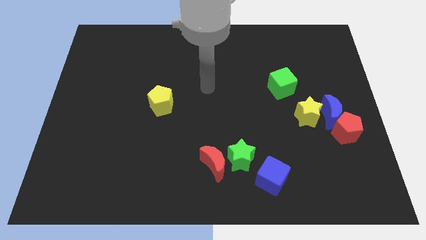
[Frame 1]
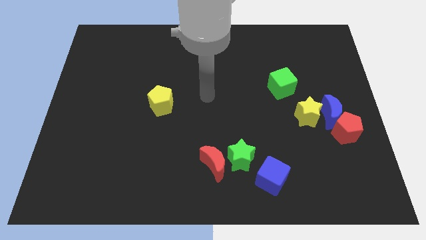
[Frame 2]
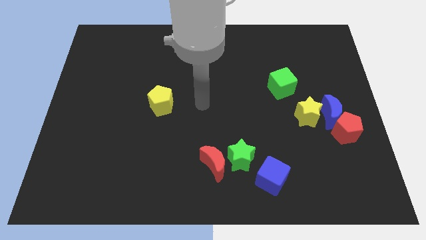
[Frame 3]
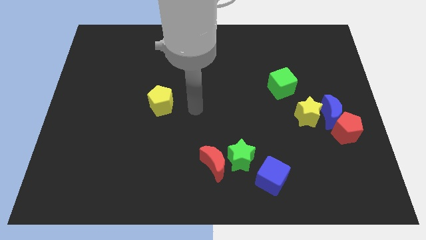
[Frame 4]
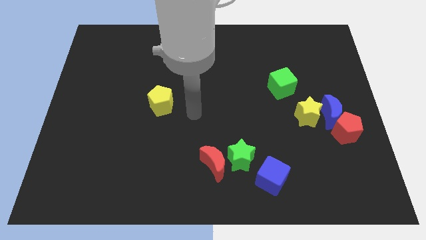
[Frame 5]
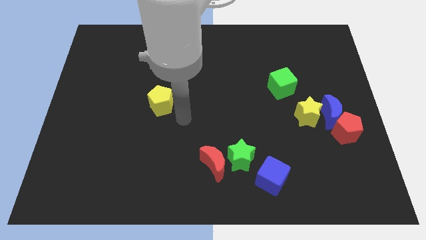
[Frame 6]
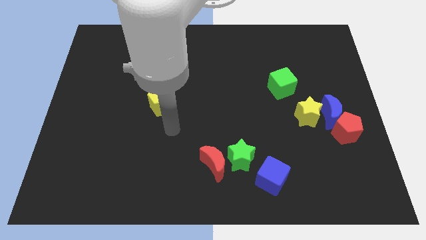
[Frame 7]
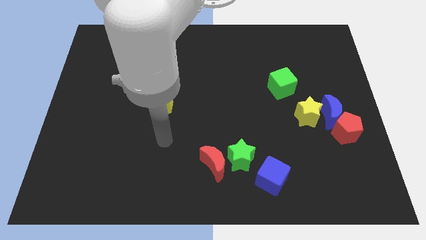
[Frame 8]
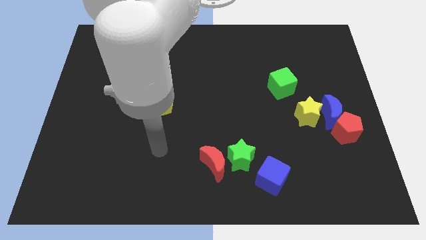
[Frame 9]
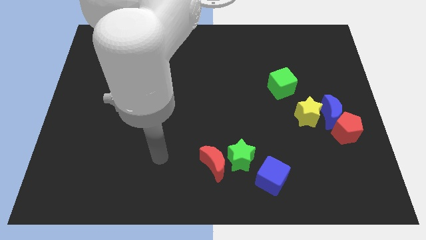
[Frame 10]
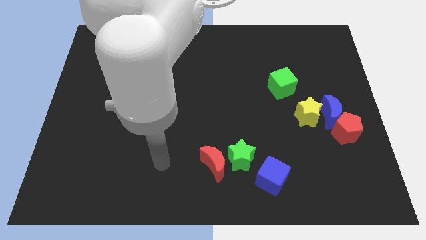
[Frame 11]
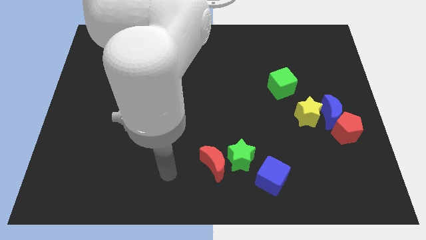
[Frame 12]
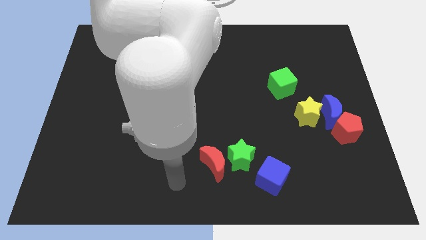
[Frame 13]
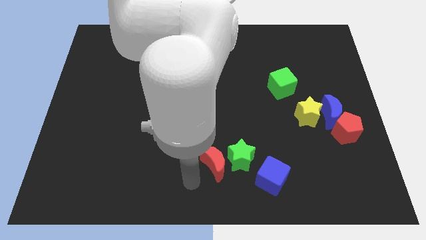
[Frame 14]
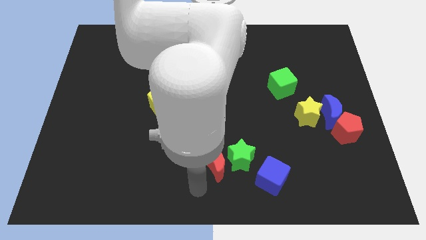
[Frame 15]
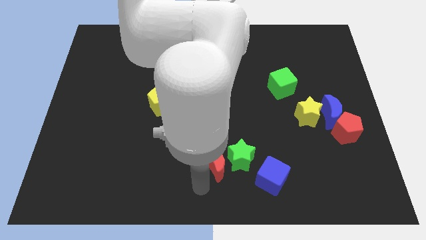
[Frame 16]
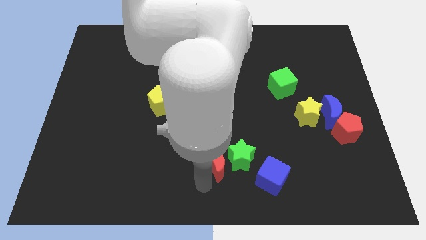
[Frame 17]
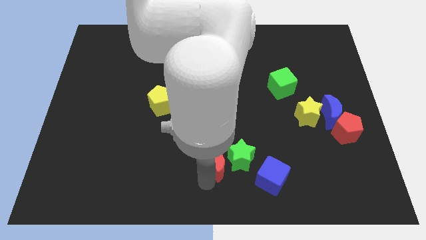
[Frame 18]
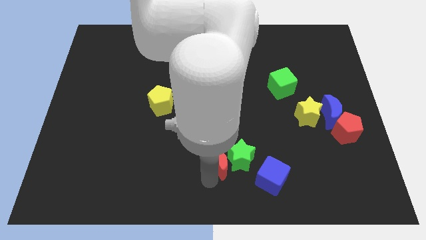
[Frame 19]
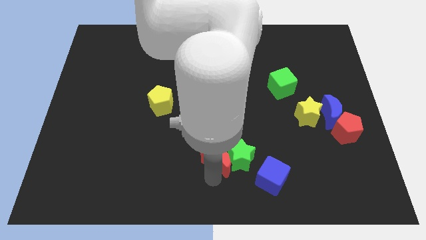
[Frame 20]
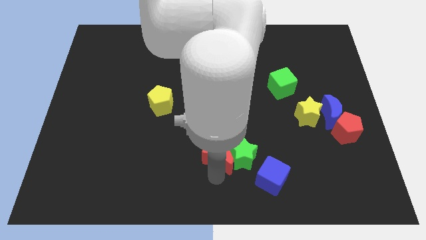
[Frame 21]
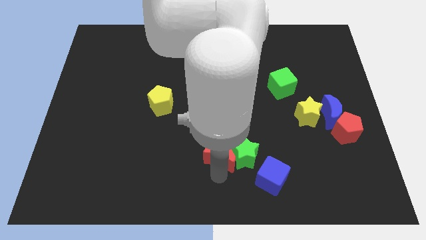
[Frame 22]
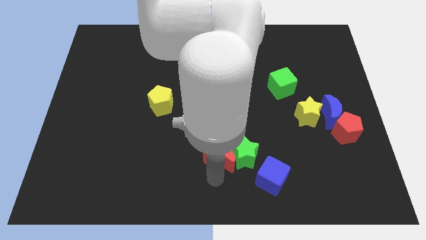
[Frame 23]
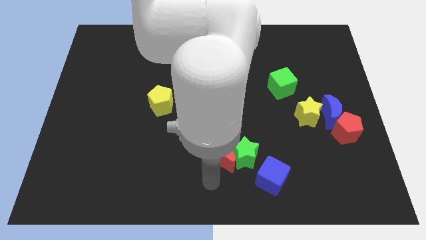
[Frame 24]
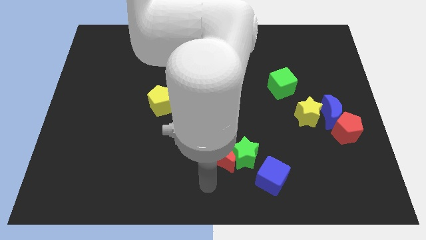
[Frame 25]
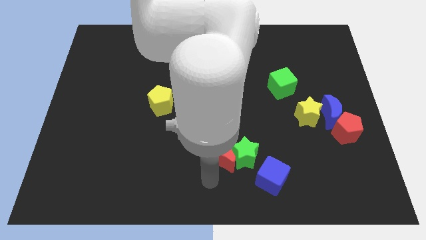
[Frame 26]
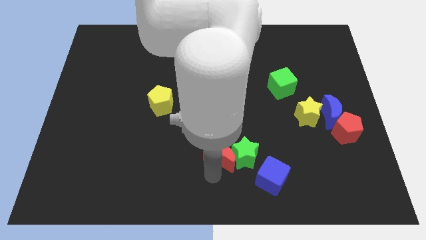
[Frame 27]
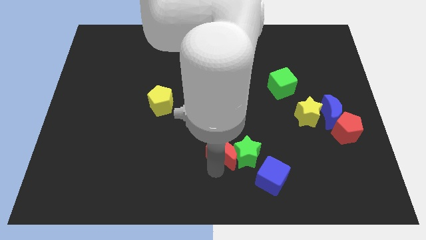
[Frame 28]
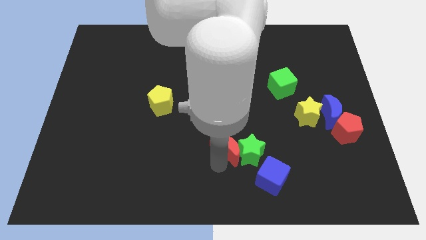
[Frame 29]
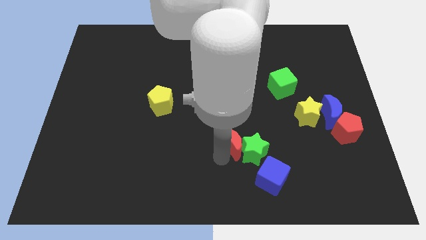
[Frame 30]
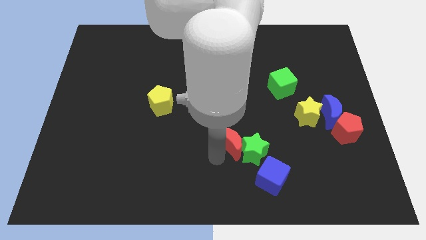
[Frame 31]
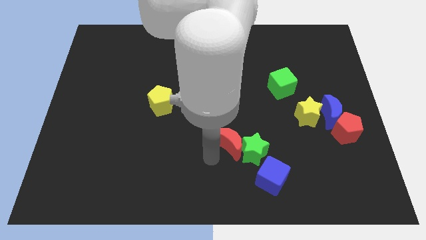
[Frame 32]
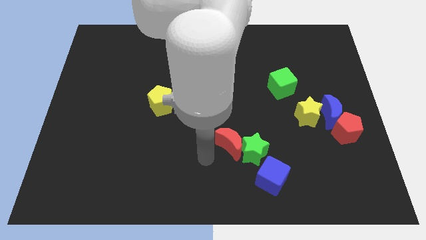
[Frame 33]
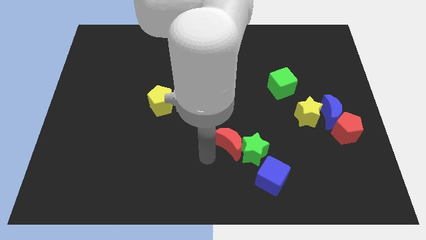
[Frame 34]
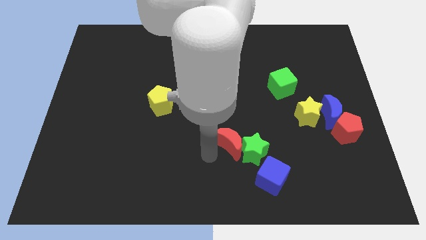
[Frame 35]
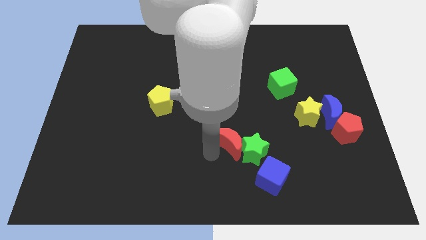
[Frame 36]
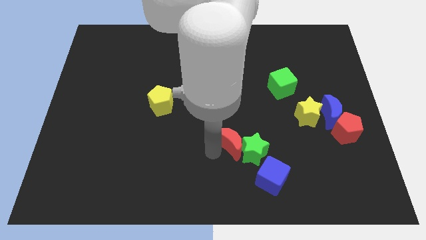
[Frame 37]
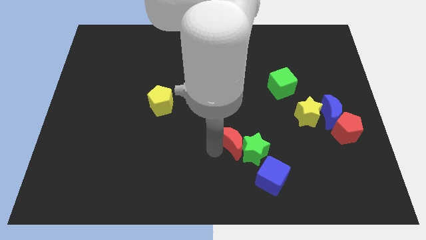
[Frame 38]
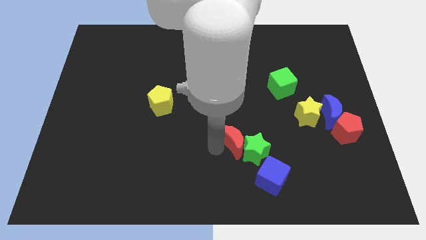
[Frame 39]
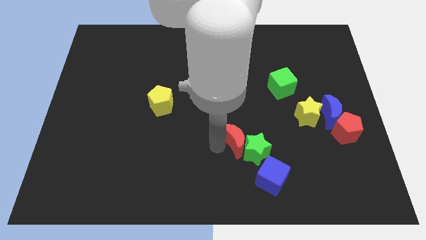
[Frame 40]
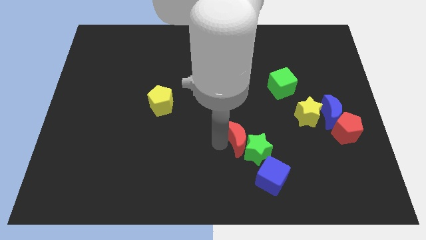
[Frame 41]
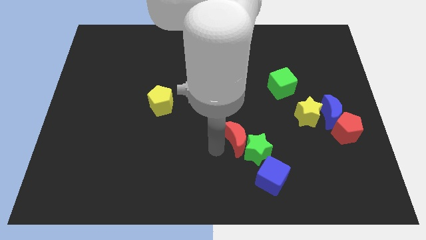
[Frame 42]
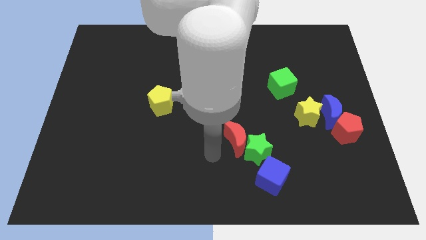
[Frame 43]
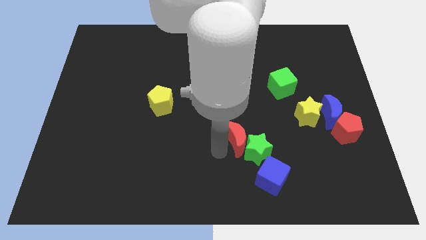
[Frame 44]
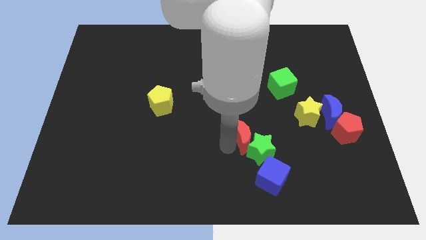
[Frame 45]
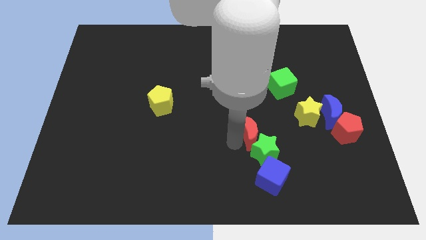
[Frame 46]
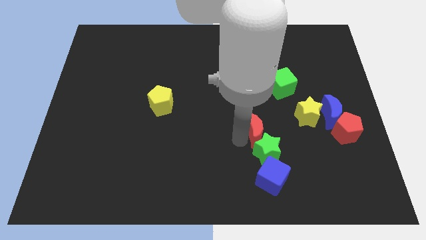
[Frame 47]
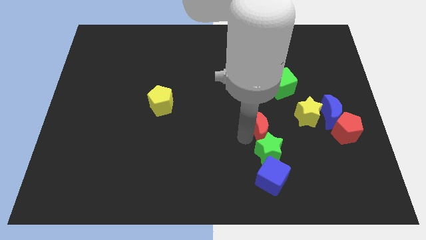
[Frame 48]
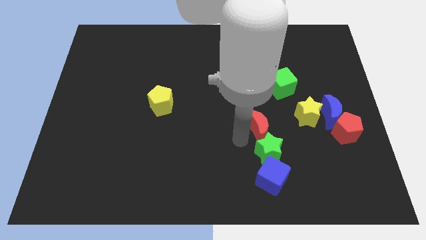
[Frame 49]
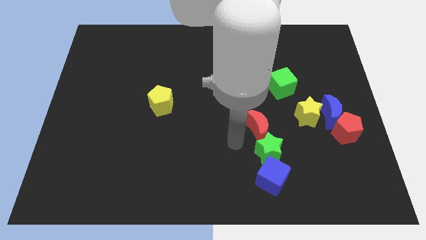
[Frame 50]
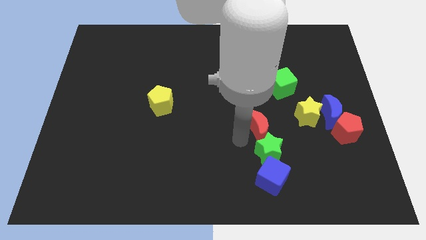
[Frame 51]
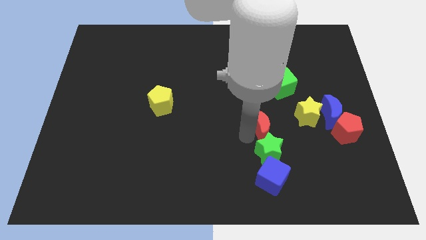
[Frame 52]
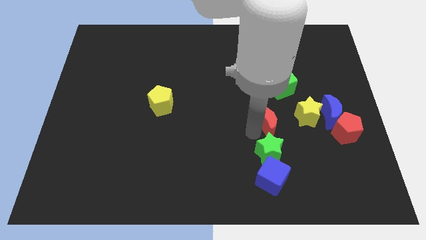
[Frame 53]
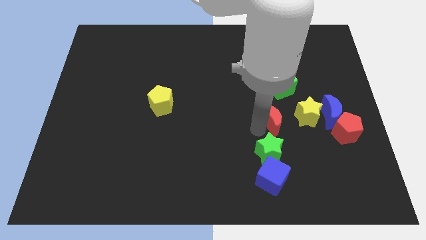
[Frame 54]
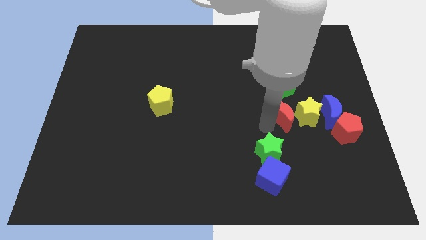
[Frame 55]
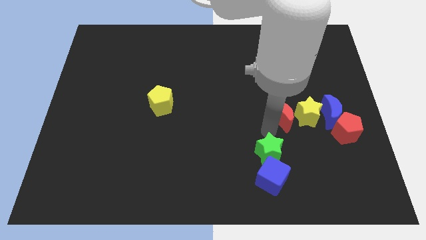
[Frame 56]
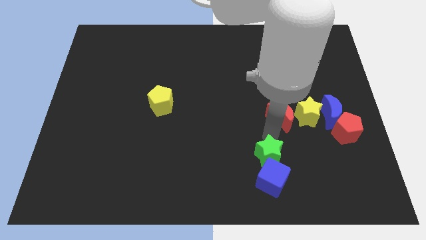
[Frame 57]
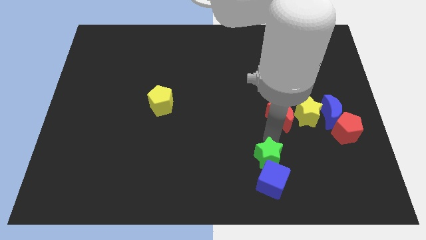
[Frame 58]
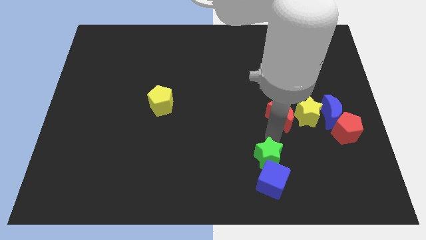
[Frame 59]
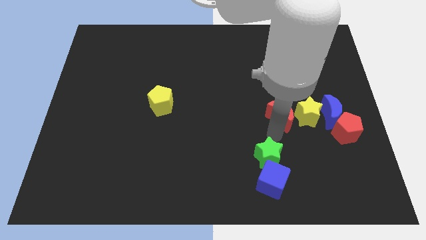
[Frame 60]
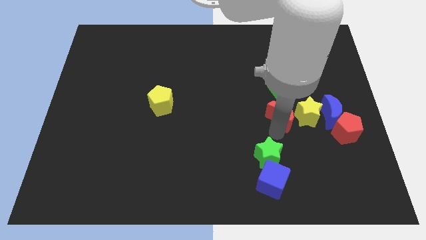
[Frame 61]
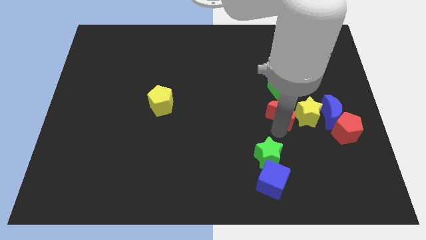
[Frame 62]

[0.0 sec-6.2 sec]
move the red moon upwards and to the right

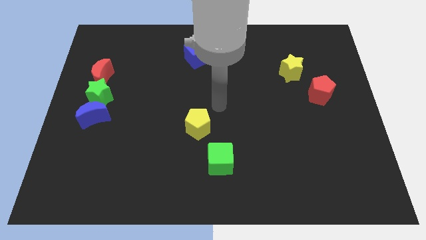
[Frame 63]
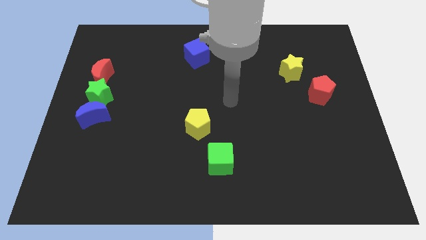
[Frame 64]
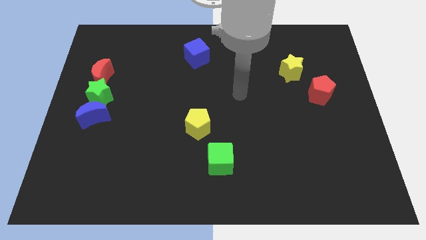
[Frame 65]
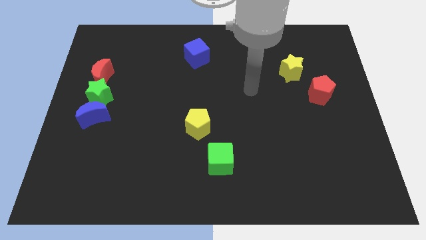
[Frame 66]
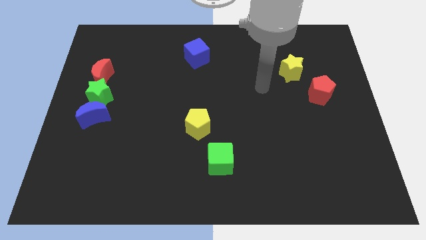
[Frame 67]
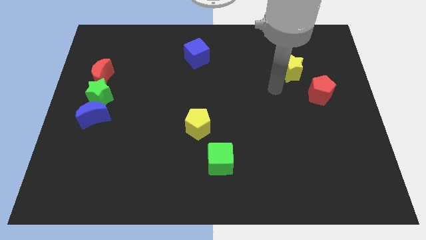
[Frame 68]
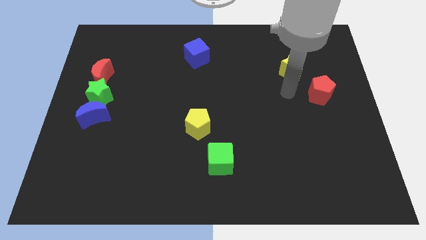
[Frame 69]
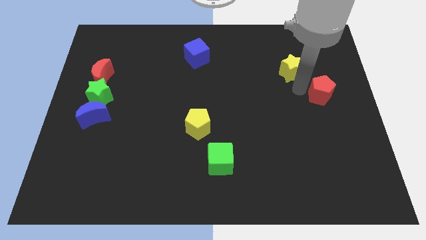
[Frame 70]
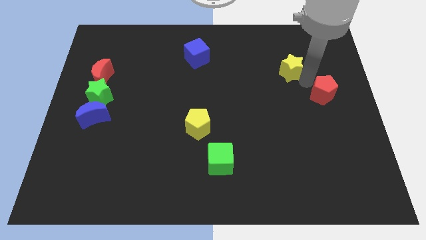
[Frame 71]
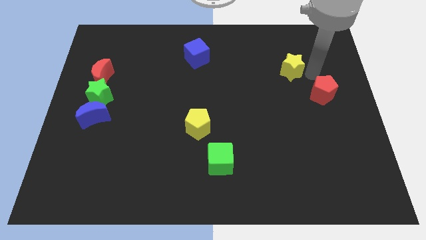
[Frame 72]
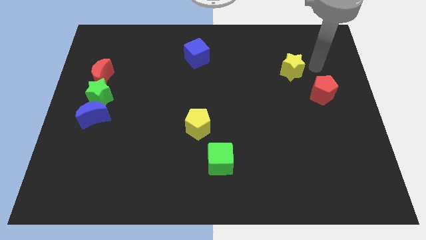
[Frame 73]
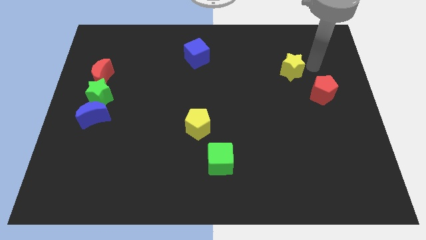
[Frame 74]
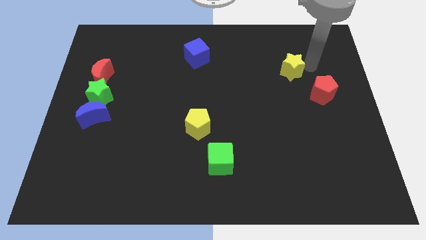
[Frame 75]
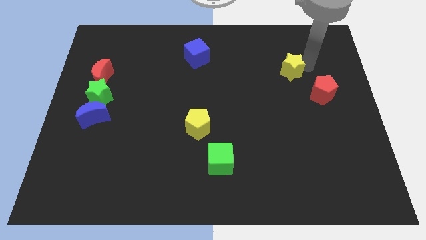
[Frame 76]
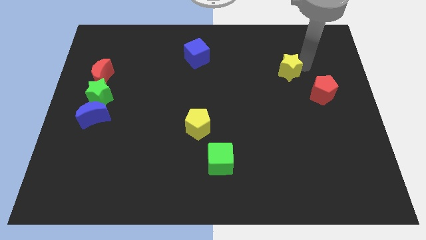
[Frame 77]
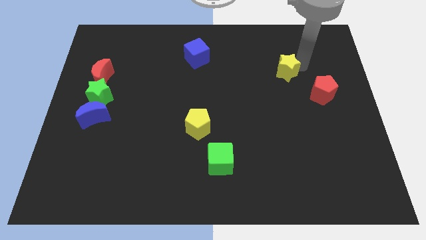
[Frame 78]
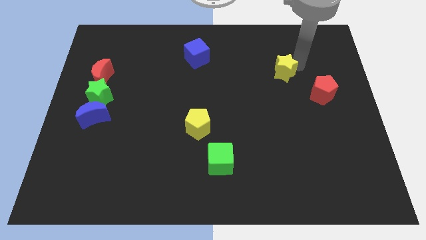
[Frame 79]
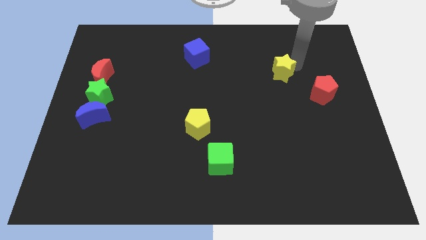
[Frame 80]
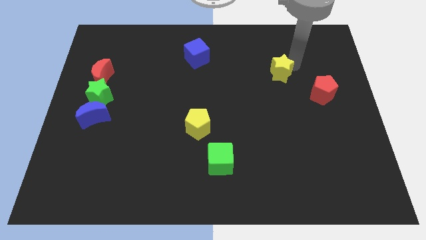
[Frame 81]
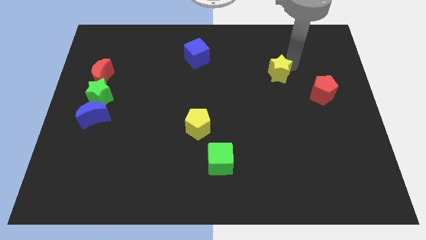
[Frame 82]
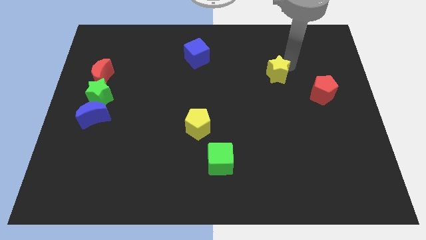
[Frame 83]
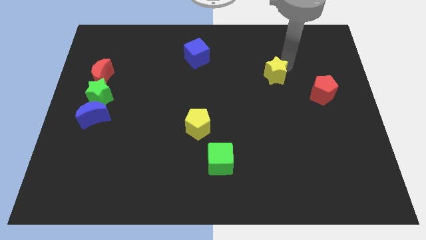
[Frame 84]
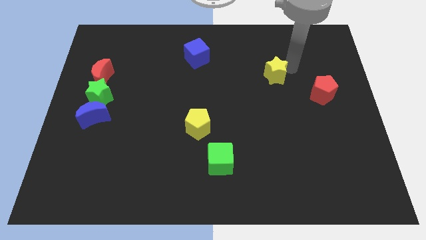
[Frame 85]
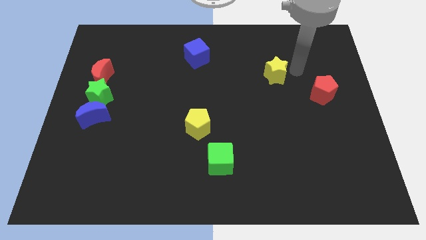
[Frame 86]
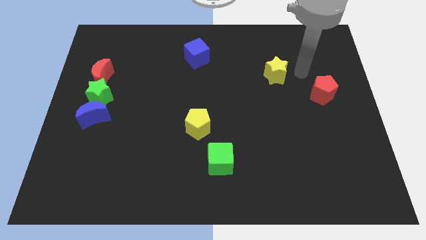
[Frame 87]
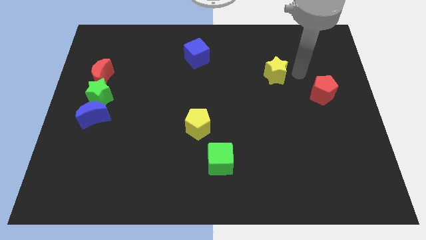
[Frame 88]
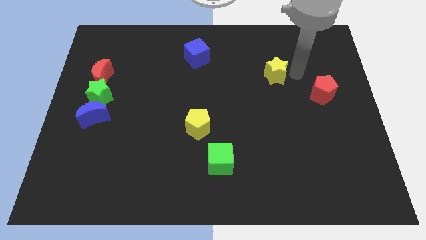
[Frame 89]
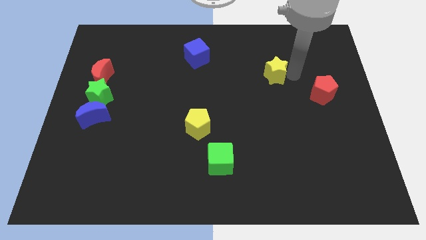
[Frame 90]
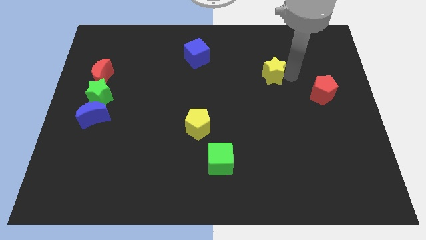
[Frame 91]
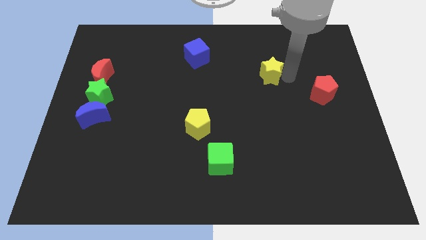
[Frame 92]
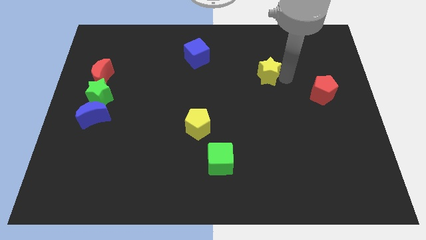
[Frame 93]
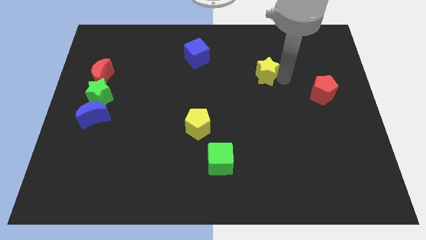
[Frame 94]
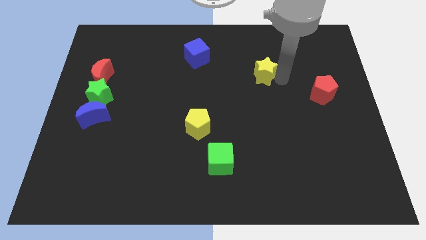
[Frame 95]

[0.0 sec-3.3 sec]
slightly move the yellow star to the left
